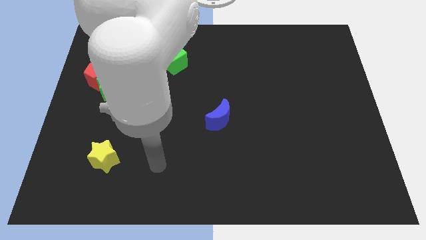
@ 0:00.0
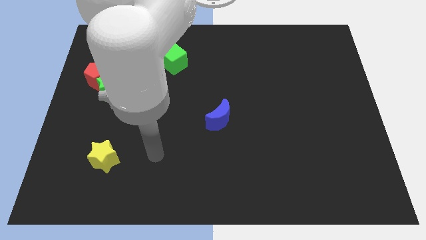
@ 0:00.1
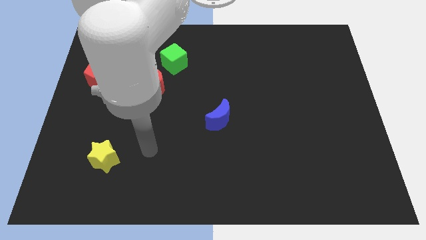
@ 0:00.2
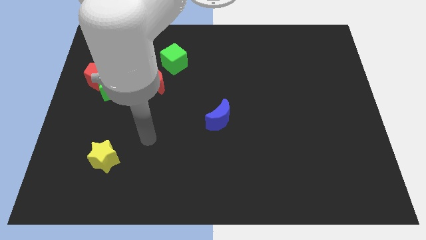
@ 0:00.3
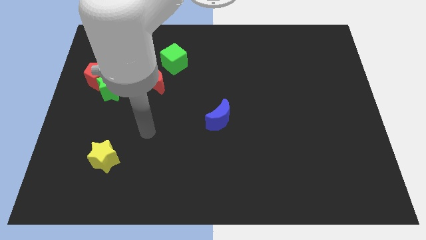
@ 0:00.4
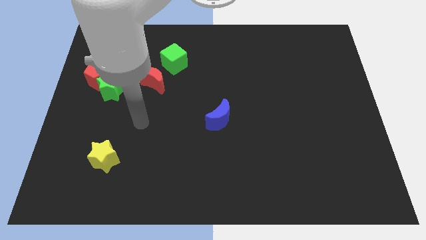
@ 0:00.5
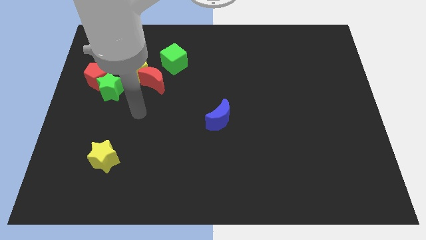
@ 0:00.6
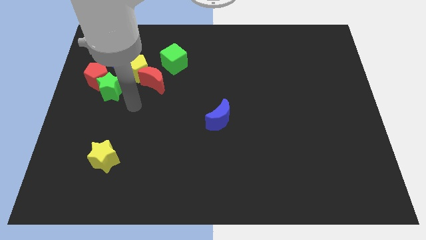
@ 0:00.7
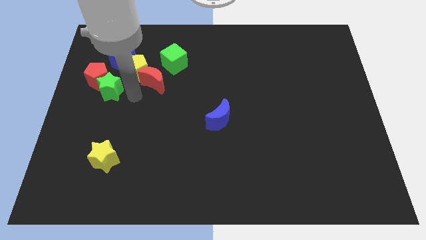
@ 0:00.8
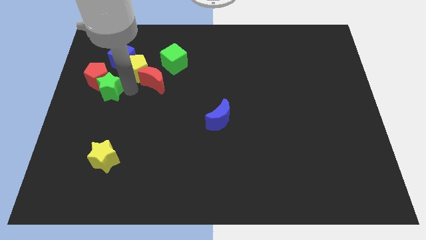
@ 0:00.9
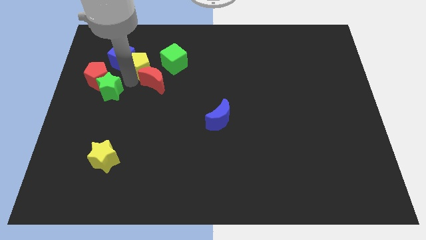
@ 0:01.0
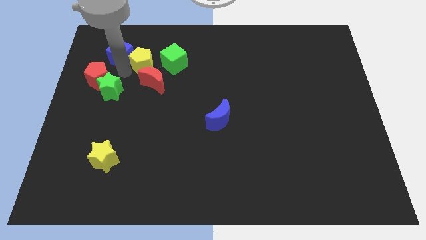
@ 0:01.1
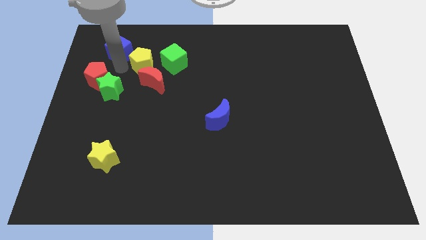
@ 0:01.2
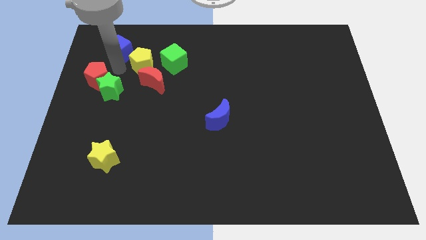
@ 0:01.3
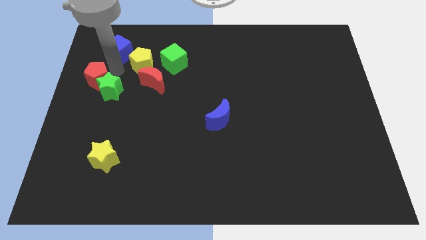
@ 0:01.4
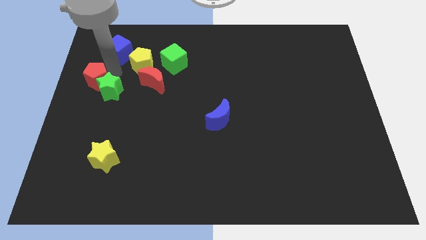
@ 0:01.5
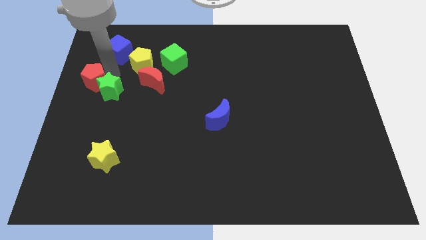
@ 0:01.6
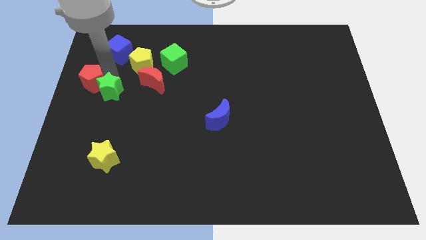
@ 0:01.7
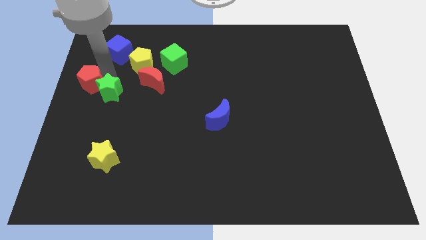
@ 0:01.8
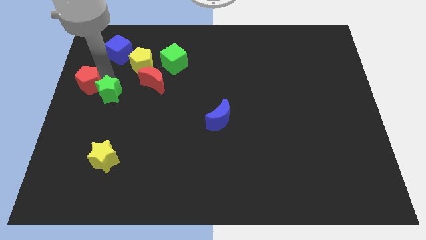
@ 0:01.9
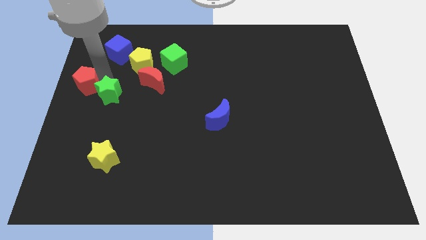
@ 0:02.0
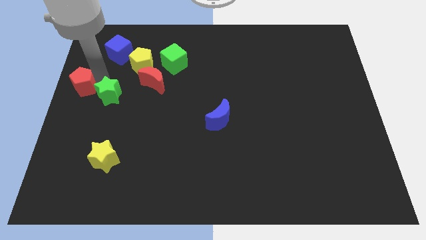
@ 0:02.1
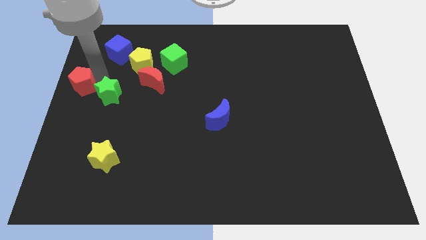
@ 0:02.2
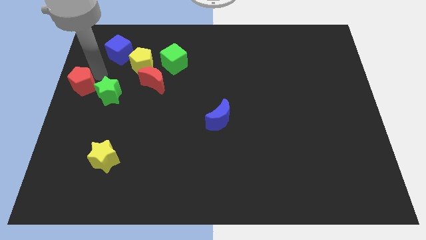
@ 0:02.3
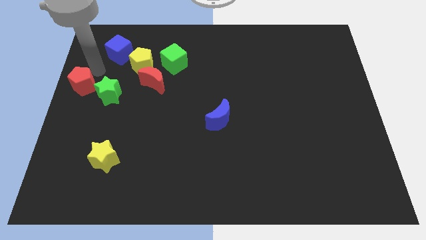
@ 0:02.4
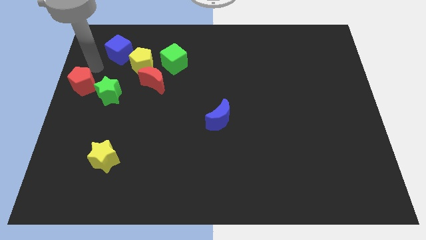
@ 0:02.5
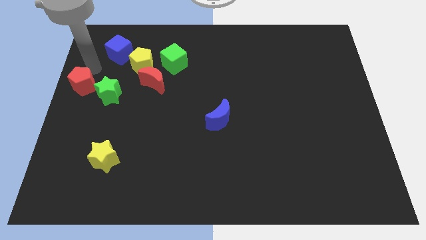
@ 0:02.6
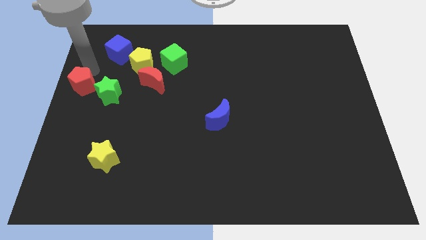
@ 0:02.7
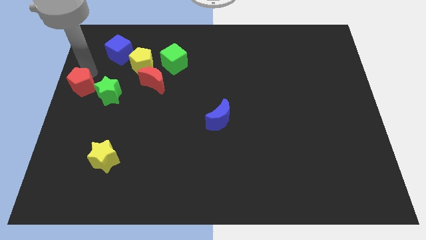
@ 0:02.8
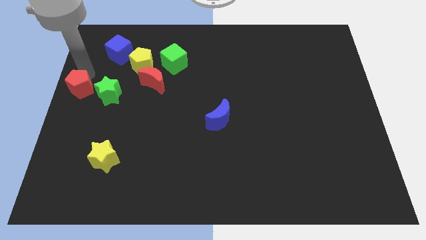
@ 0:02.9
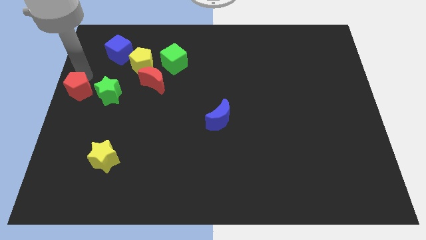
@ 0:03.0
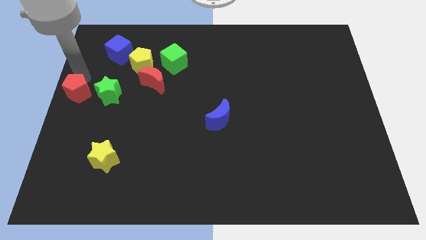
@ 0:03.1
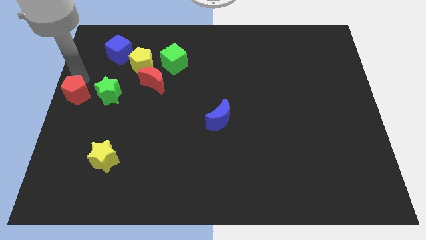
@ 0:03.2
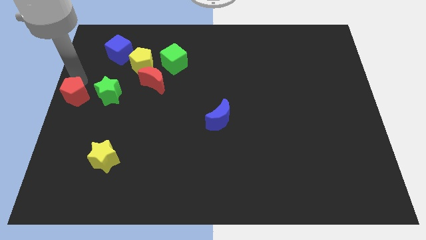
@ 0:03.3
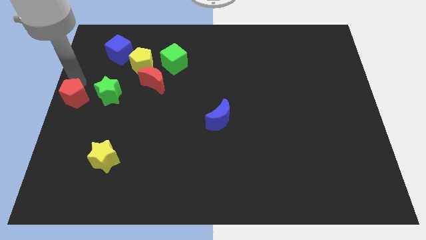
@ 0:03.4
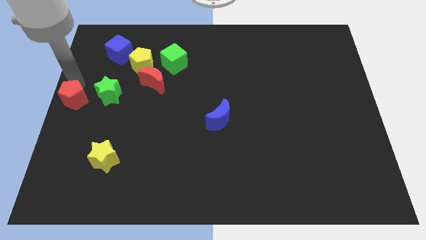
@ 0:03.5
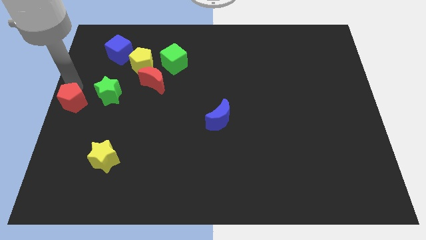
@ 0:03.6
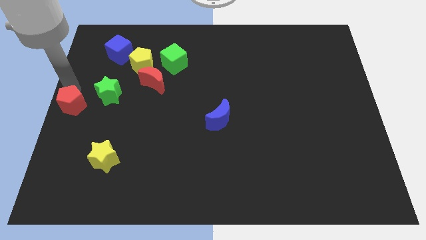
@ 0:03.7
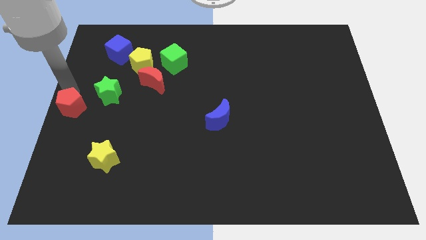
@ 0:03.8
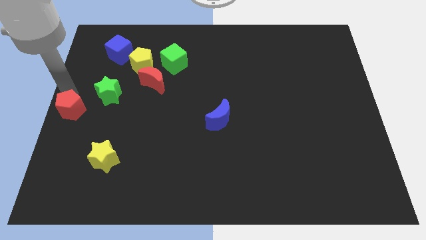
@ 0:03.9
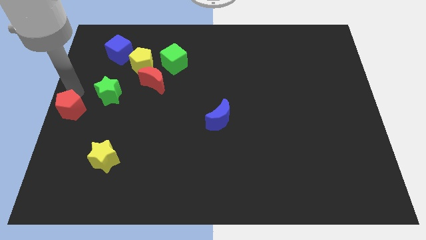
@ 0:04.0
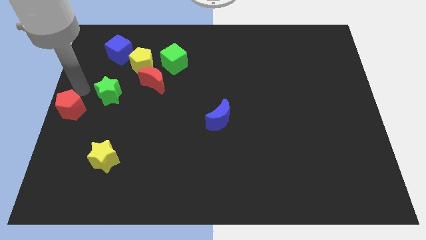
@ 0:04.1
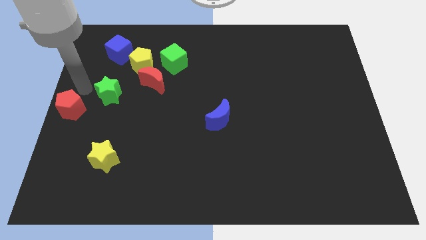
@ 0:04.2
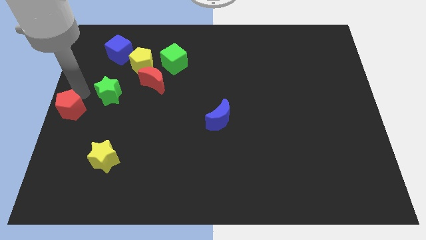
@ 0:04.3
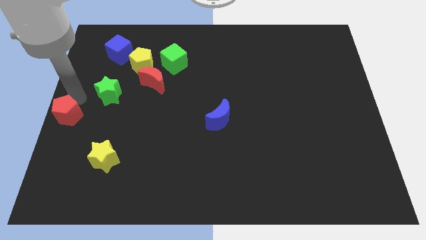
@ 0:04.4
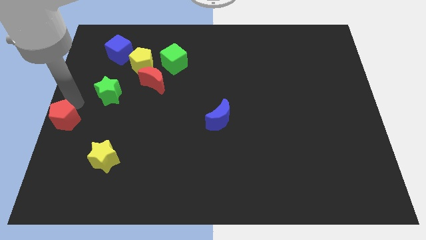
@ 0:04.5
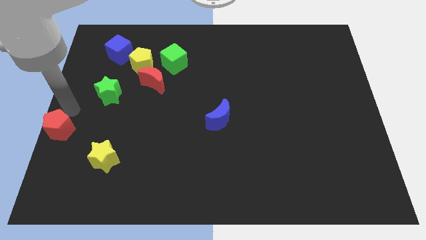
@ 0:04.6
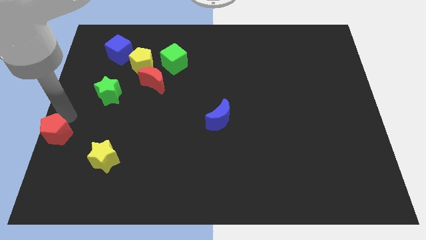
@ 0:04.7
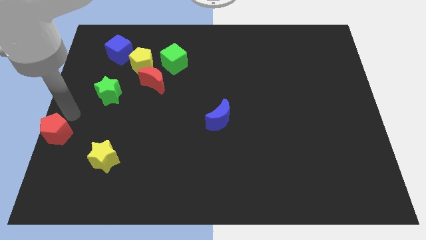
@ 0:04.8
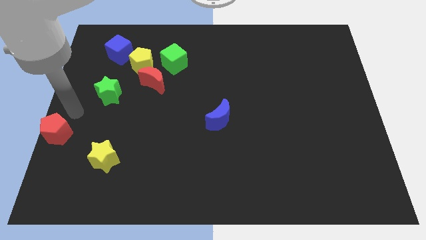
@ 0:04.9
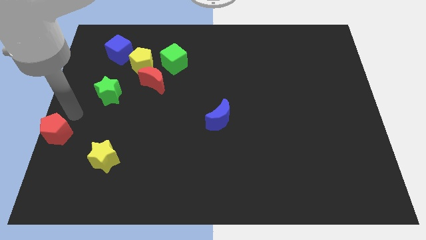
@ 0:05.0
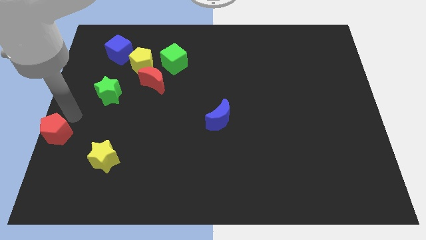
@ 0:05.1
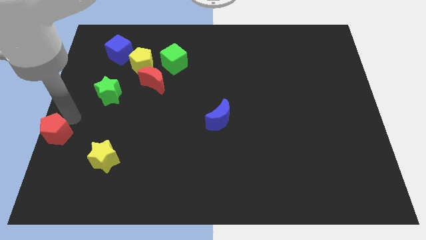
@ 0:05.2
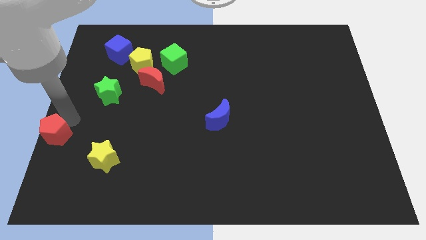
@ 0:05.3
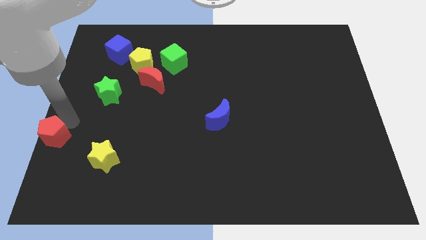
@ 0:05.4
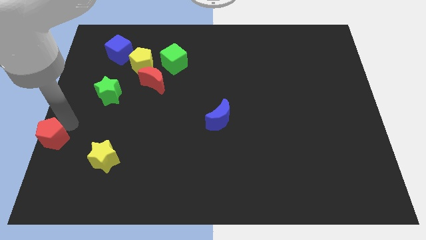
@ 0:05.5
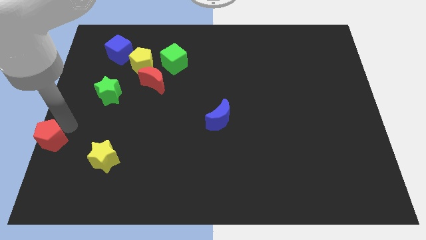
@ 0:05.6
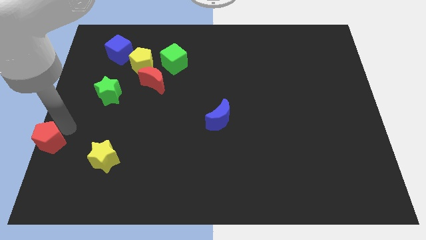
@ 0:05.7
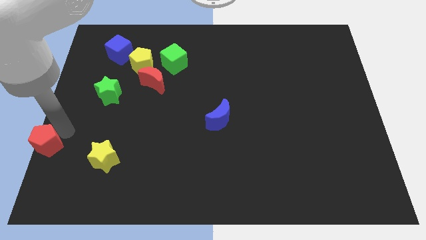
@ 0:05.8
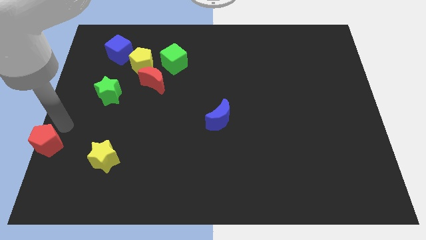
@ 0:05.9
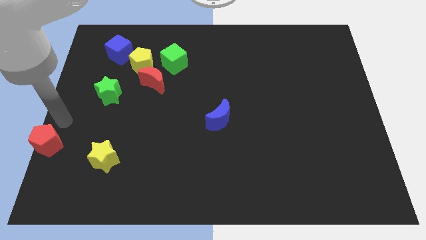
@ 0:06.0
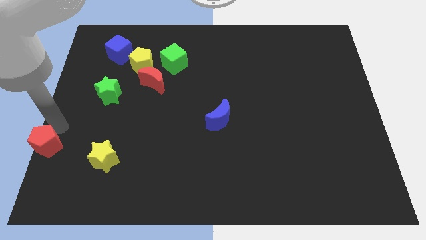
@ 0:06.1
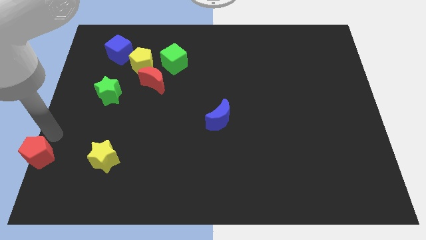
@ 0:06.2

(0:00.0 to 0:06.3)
slide the red pentagon to the bottom left of the board

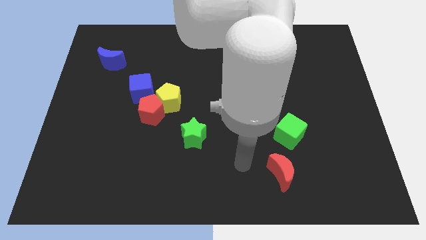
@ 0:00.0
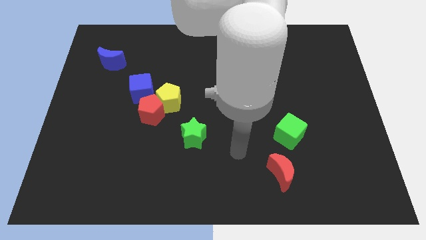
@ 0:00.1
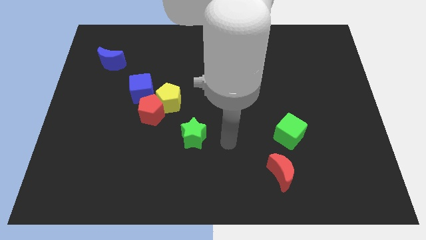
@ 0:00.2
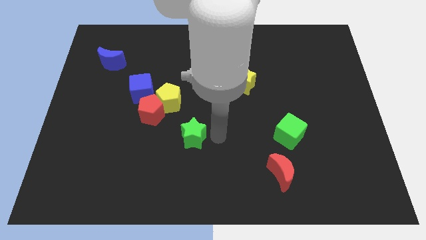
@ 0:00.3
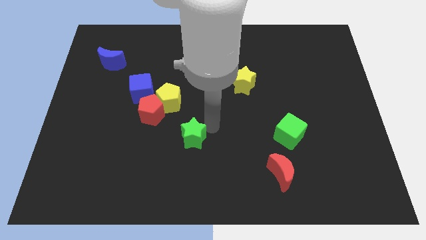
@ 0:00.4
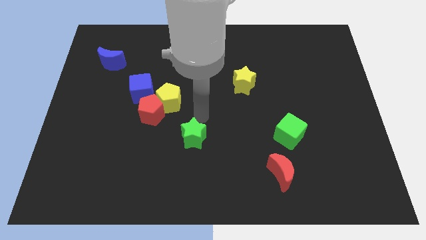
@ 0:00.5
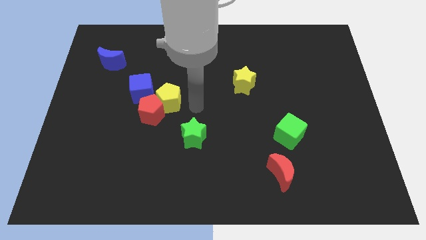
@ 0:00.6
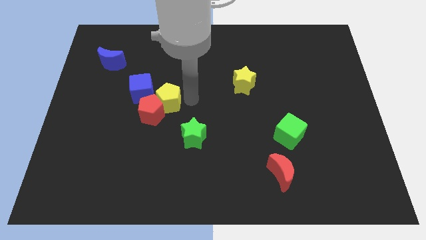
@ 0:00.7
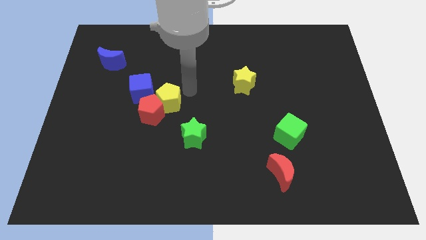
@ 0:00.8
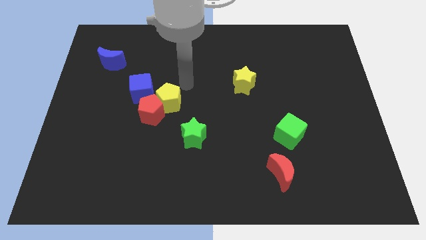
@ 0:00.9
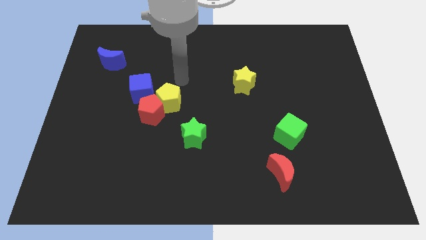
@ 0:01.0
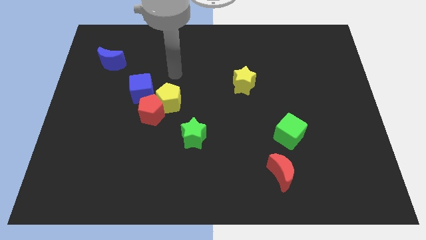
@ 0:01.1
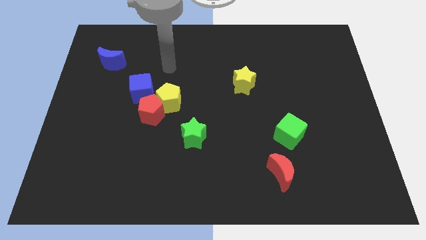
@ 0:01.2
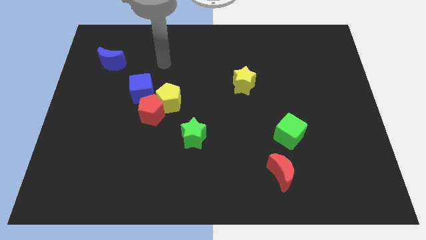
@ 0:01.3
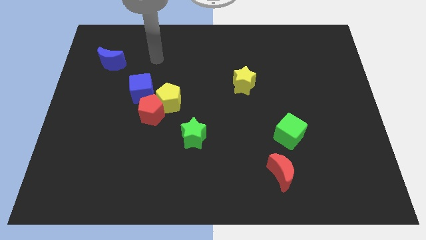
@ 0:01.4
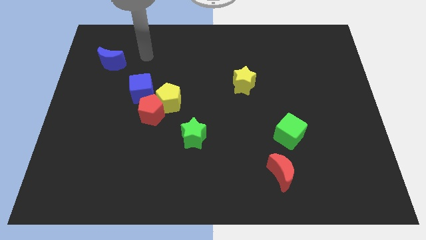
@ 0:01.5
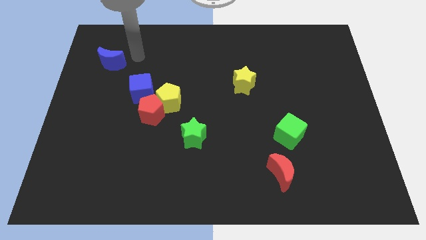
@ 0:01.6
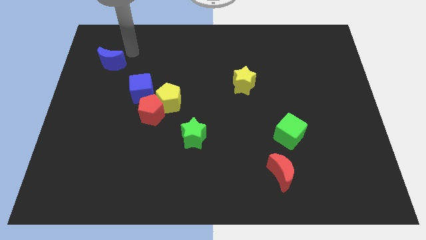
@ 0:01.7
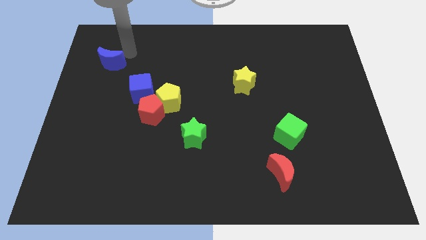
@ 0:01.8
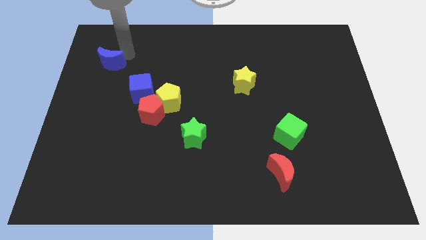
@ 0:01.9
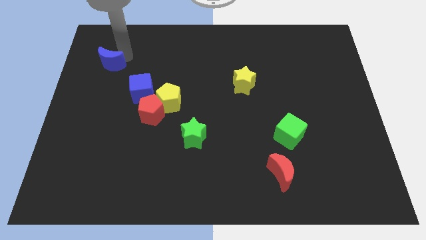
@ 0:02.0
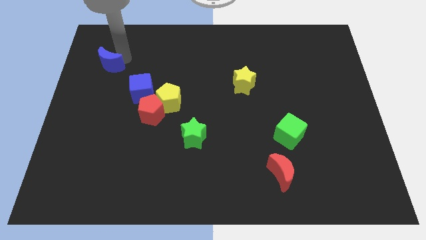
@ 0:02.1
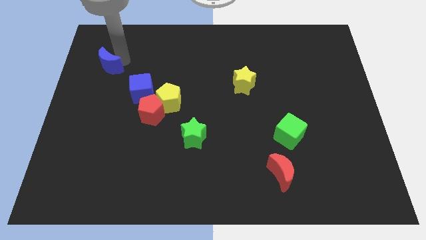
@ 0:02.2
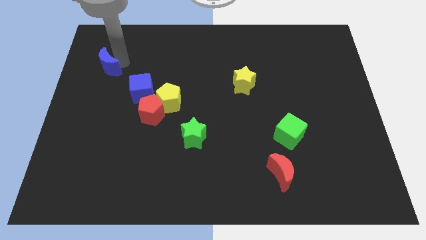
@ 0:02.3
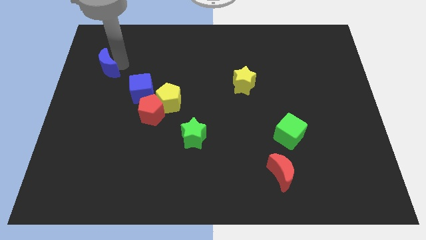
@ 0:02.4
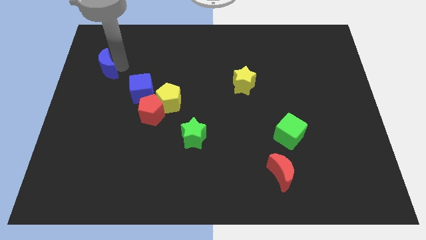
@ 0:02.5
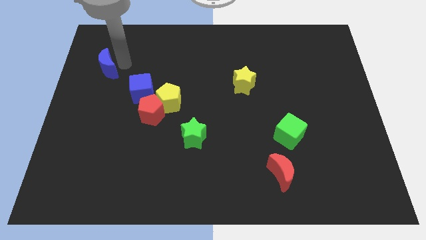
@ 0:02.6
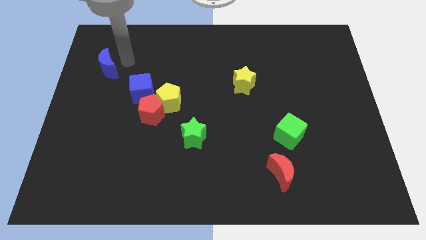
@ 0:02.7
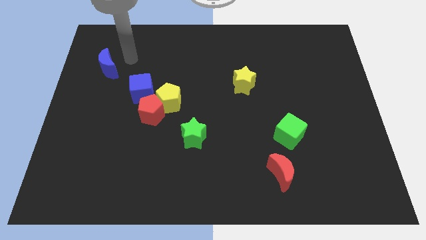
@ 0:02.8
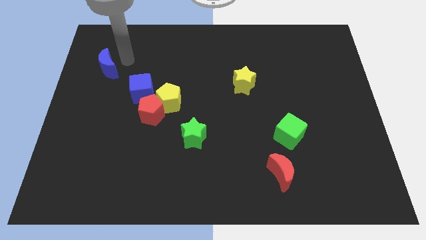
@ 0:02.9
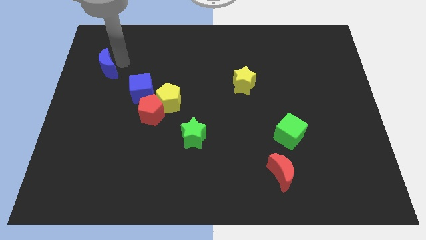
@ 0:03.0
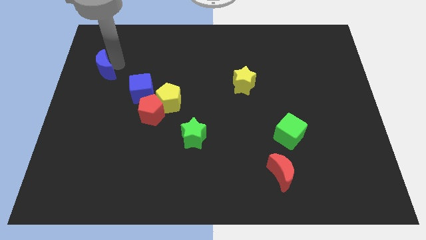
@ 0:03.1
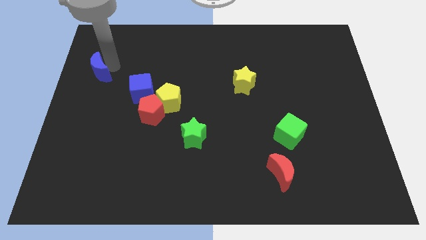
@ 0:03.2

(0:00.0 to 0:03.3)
slide the blue moon to the left side
